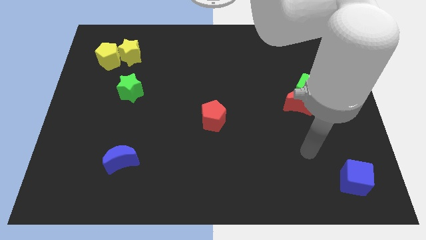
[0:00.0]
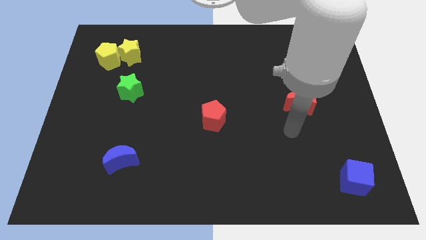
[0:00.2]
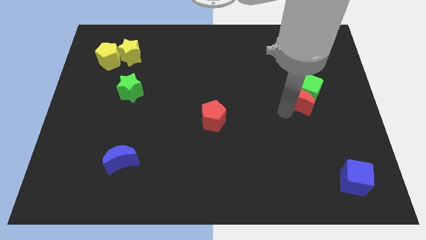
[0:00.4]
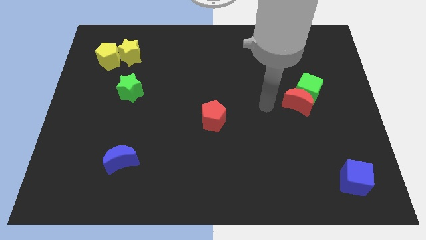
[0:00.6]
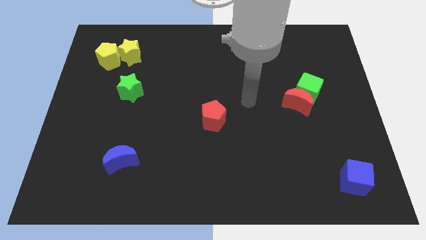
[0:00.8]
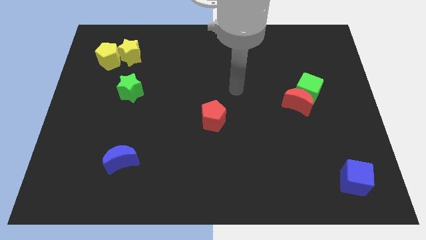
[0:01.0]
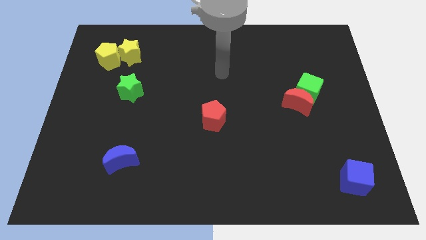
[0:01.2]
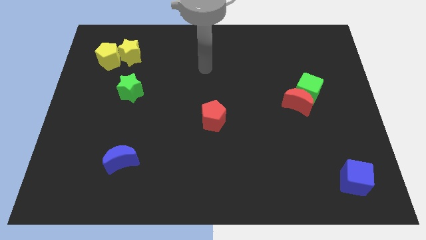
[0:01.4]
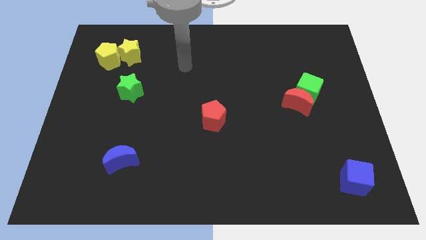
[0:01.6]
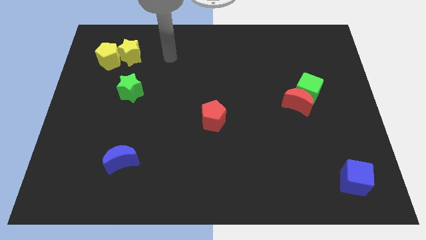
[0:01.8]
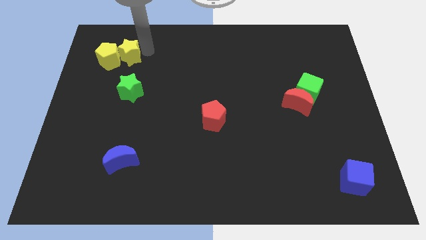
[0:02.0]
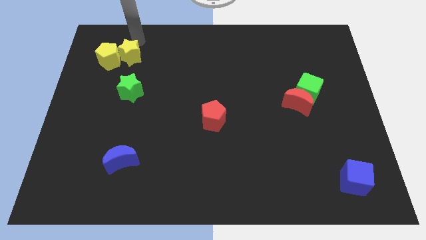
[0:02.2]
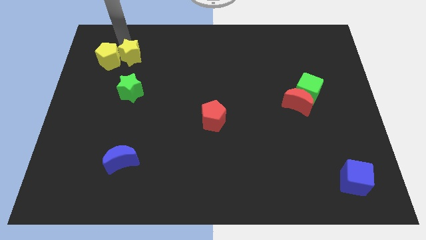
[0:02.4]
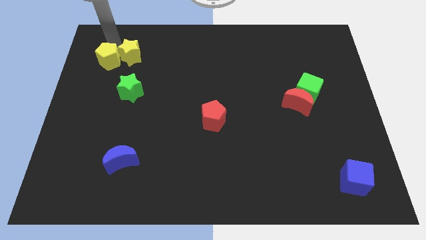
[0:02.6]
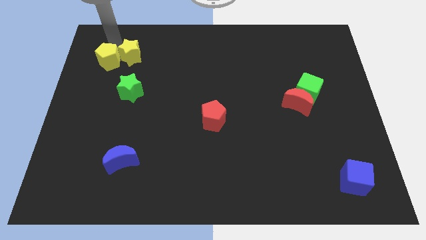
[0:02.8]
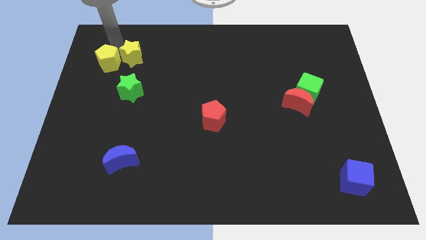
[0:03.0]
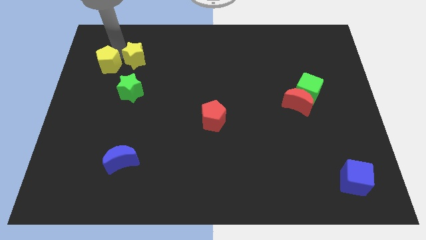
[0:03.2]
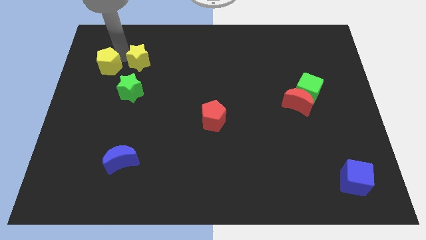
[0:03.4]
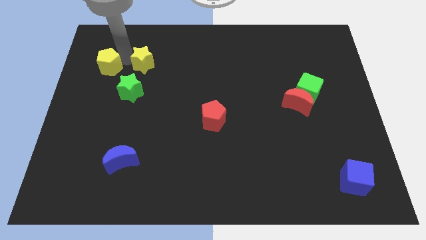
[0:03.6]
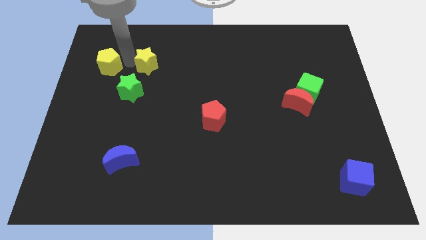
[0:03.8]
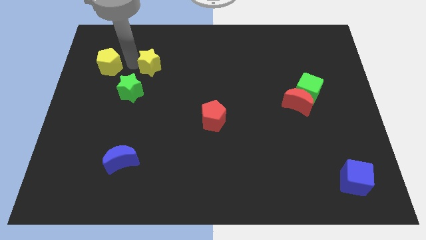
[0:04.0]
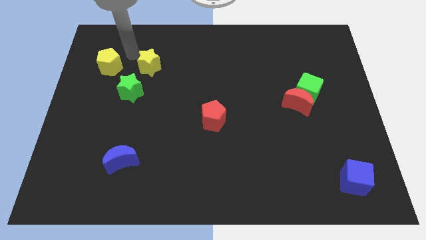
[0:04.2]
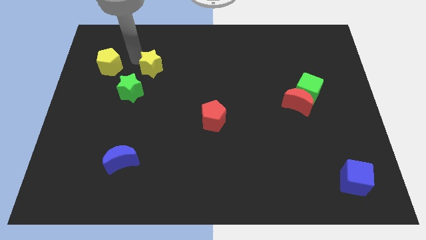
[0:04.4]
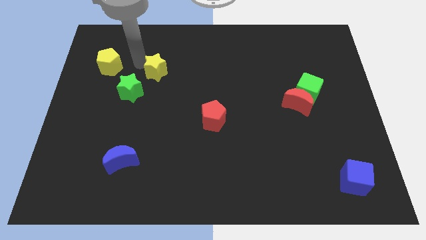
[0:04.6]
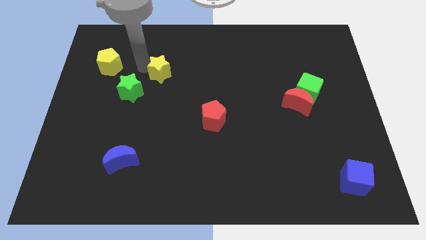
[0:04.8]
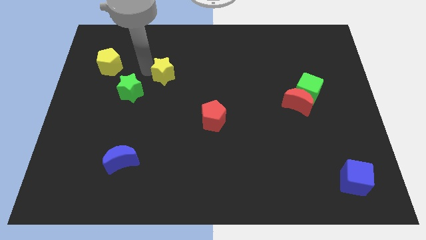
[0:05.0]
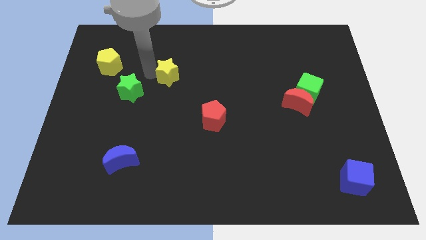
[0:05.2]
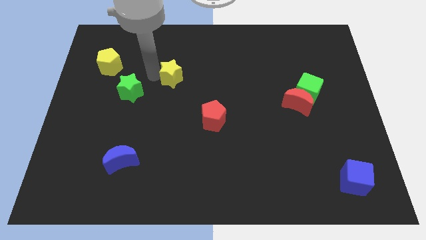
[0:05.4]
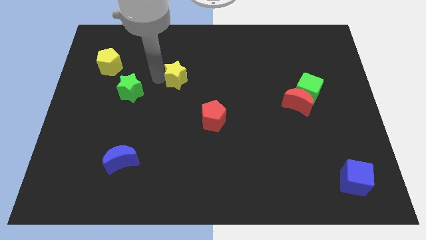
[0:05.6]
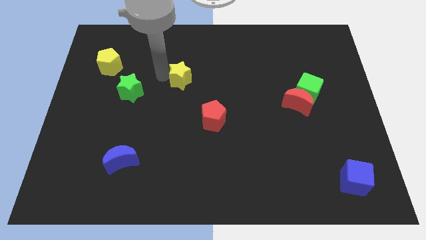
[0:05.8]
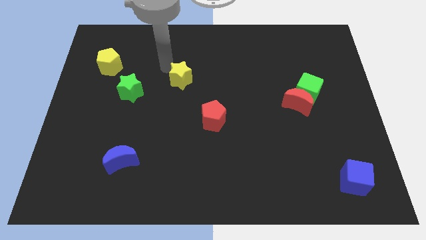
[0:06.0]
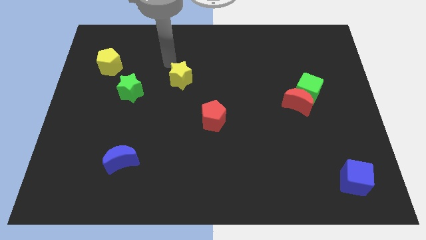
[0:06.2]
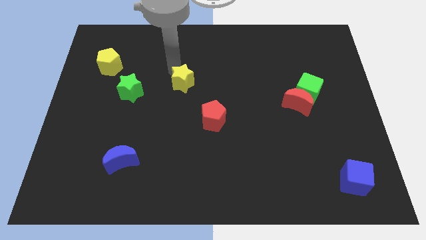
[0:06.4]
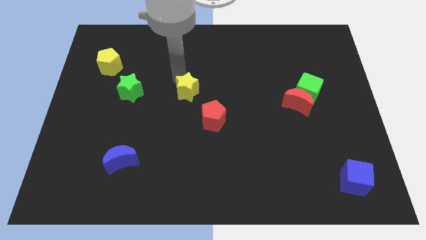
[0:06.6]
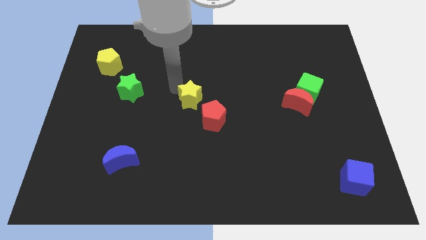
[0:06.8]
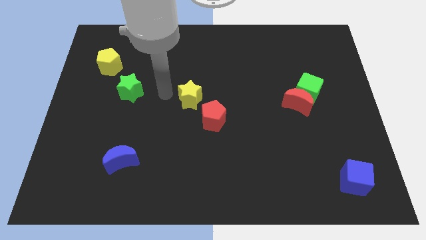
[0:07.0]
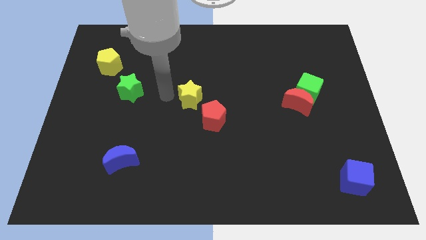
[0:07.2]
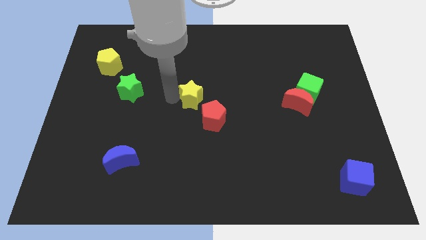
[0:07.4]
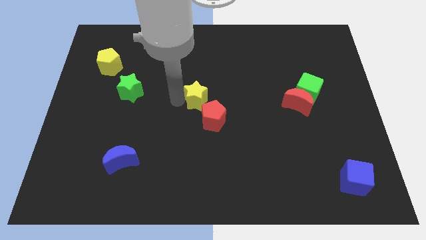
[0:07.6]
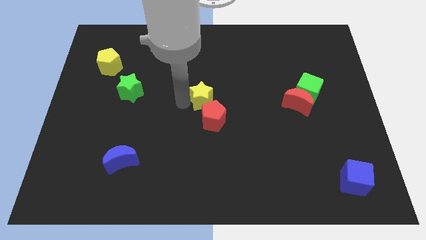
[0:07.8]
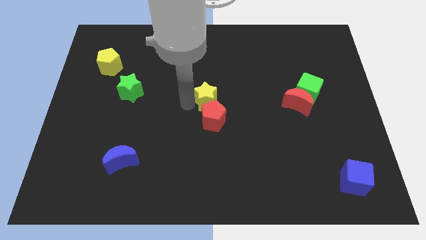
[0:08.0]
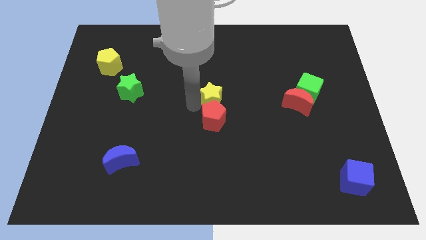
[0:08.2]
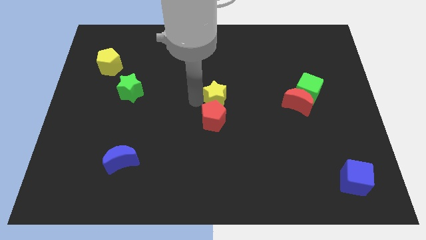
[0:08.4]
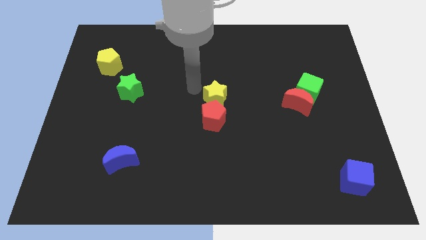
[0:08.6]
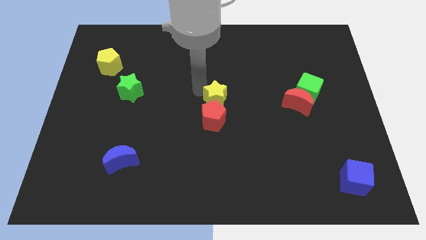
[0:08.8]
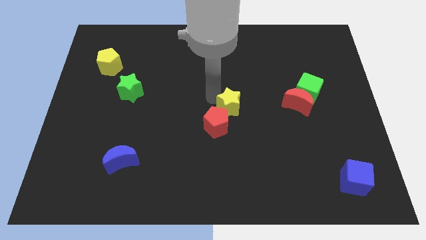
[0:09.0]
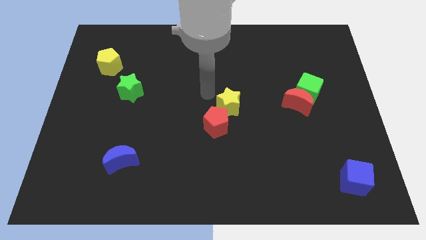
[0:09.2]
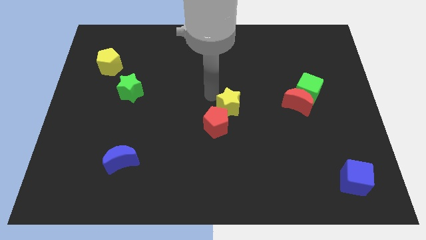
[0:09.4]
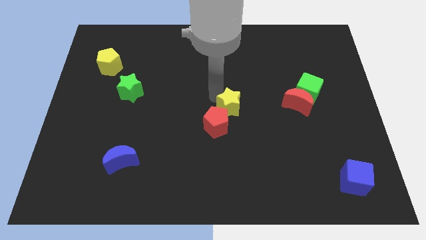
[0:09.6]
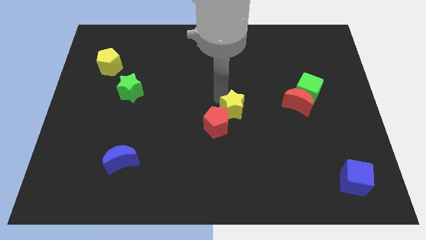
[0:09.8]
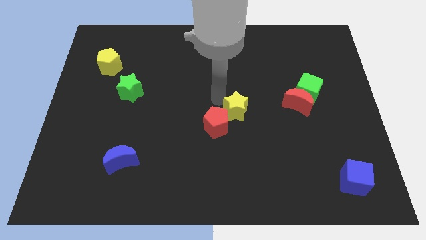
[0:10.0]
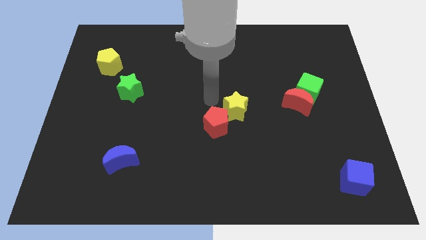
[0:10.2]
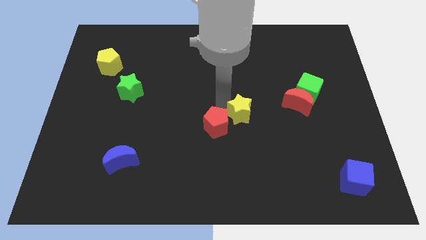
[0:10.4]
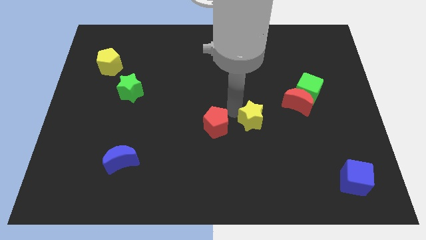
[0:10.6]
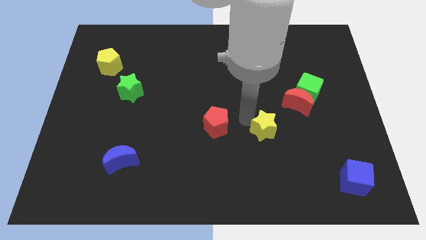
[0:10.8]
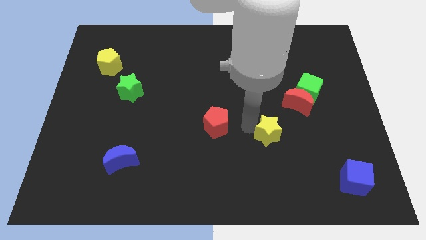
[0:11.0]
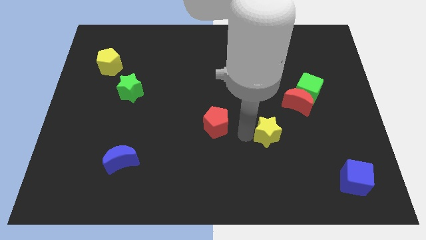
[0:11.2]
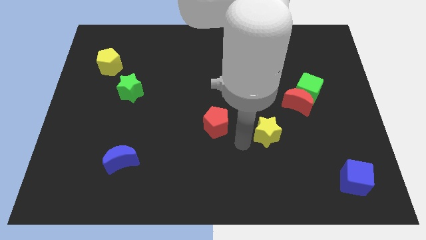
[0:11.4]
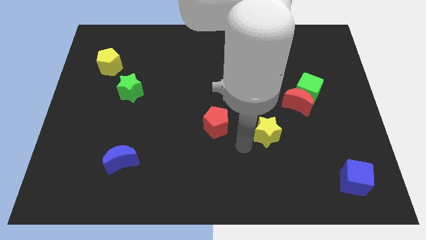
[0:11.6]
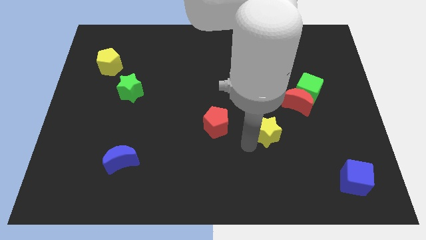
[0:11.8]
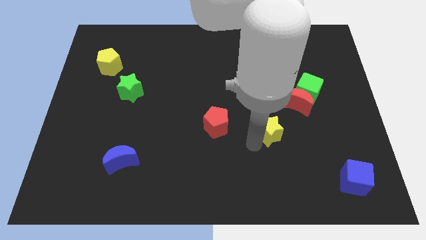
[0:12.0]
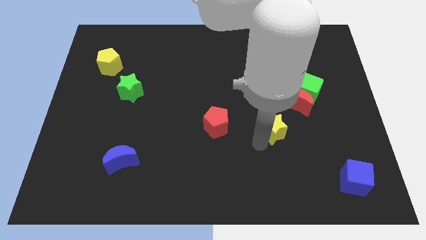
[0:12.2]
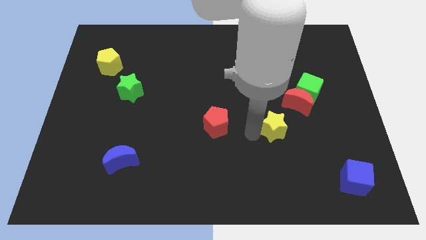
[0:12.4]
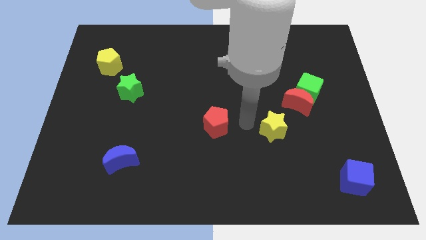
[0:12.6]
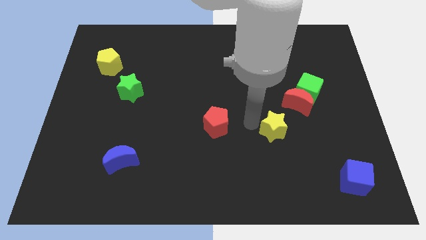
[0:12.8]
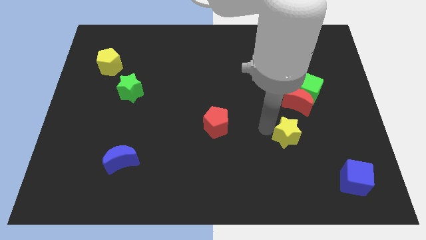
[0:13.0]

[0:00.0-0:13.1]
put the yellow star to the bottom of the red moon
